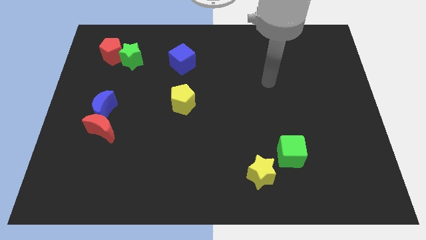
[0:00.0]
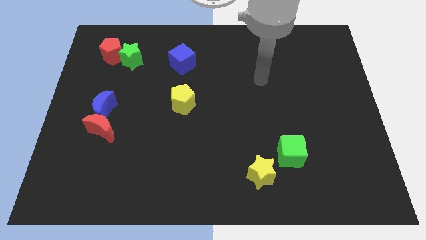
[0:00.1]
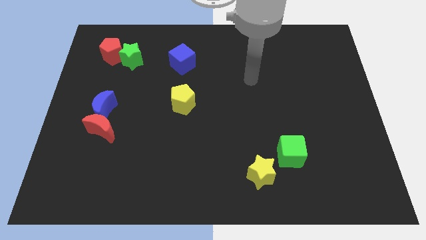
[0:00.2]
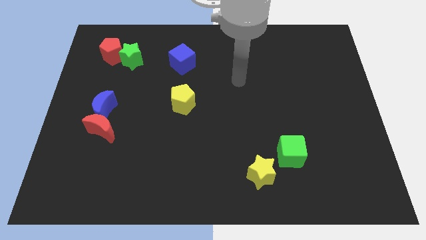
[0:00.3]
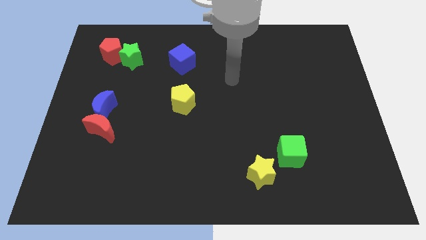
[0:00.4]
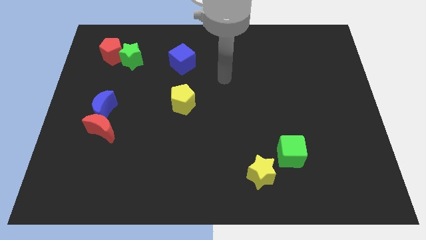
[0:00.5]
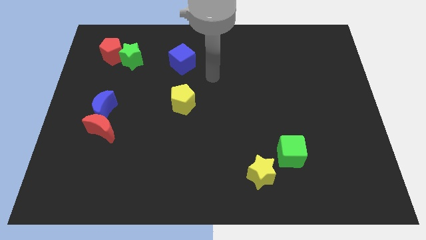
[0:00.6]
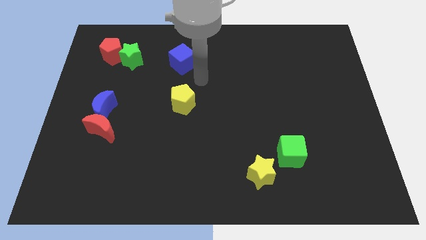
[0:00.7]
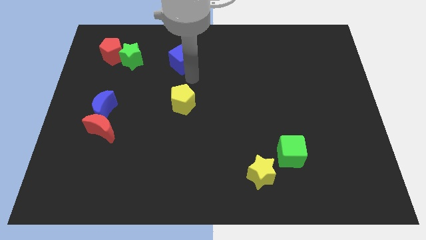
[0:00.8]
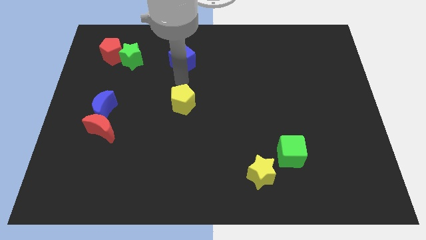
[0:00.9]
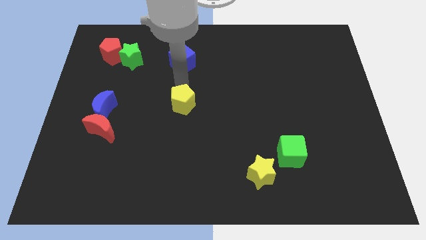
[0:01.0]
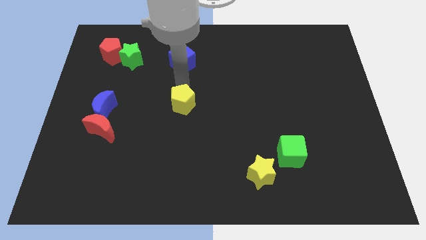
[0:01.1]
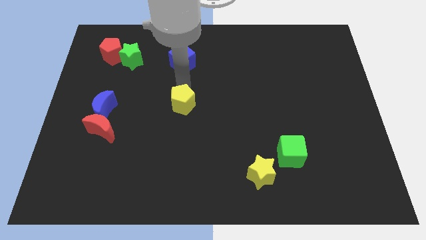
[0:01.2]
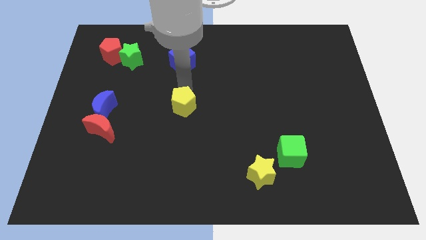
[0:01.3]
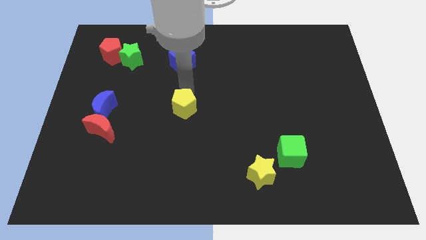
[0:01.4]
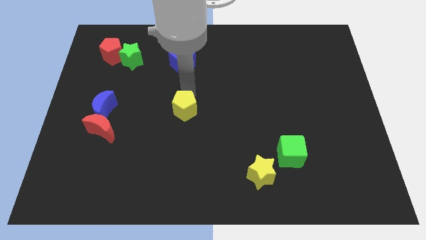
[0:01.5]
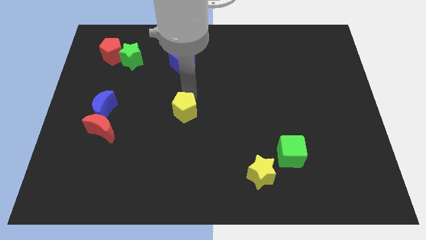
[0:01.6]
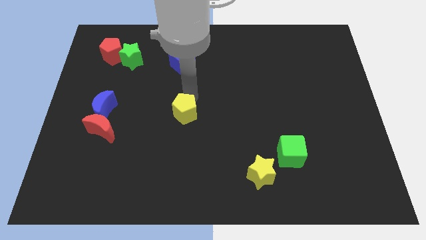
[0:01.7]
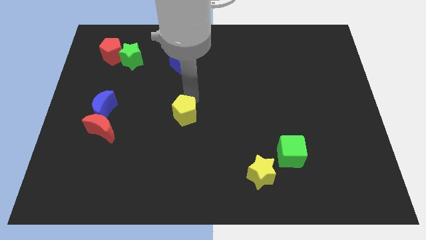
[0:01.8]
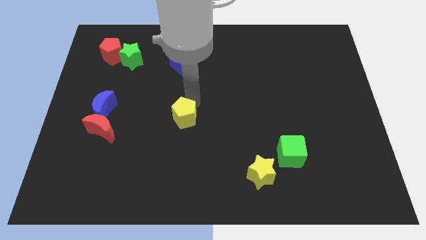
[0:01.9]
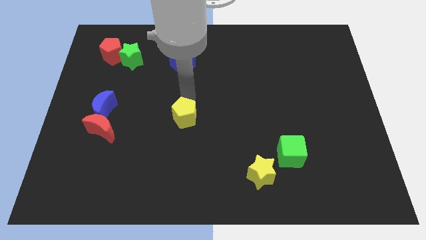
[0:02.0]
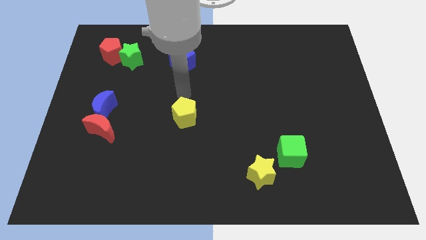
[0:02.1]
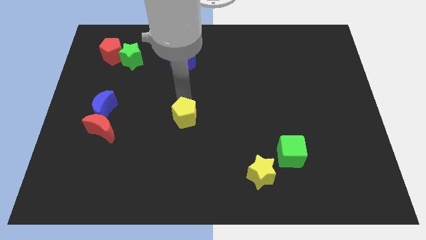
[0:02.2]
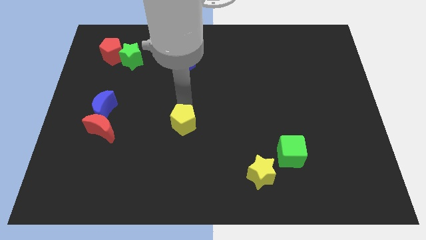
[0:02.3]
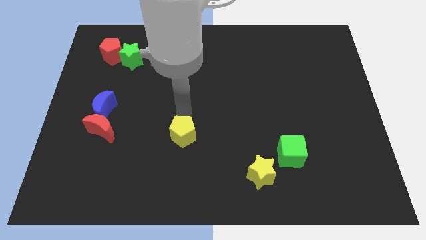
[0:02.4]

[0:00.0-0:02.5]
slightly push the yellow pentagon down

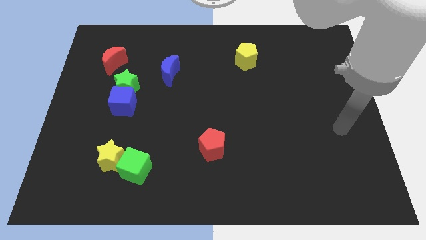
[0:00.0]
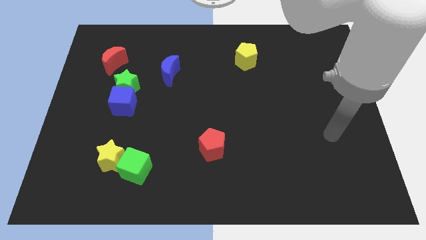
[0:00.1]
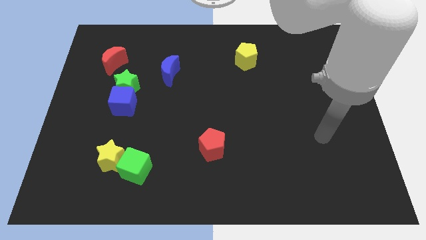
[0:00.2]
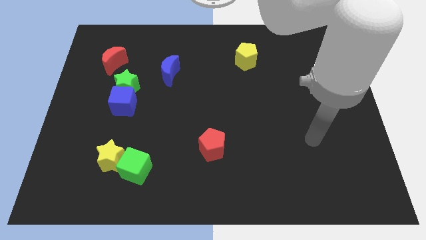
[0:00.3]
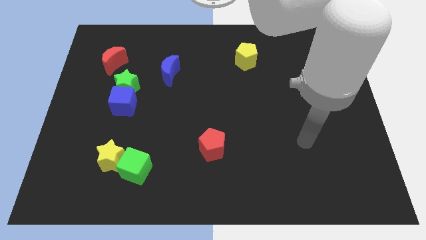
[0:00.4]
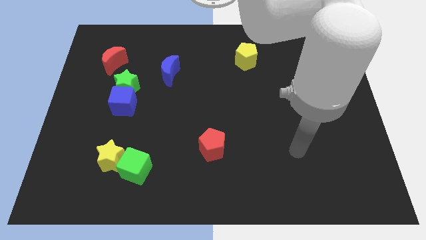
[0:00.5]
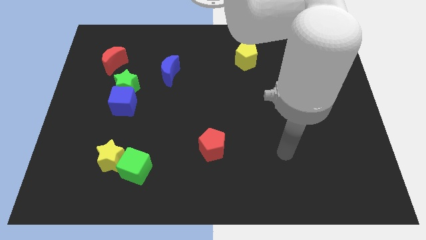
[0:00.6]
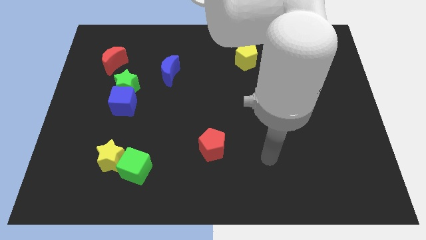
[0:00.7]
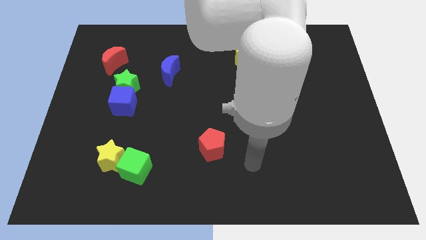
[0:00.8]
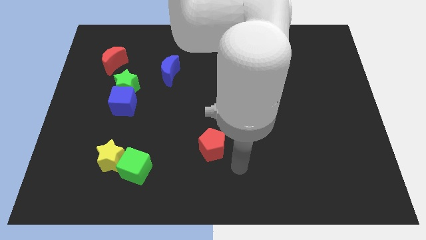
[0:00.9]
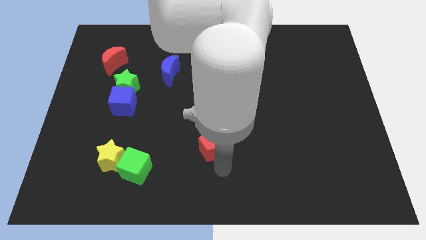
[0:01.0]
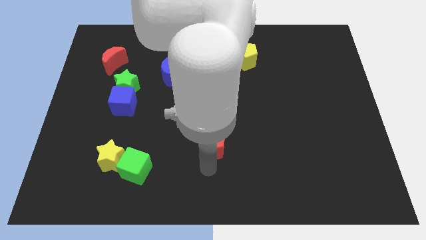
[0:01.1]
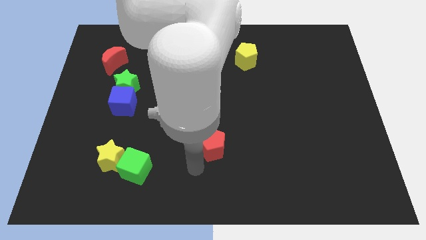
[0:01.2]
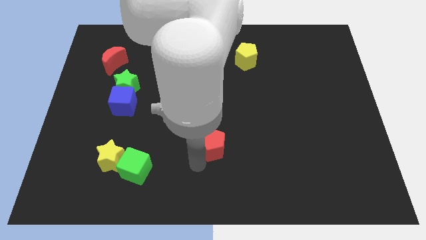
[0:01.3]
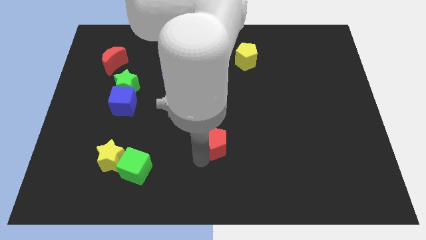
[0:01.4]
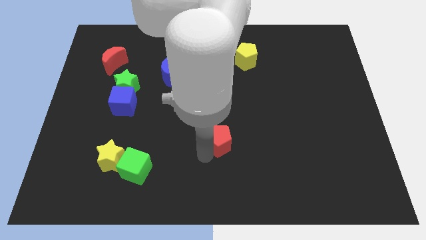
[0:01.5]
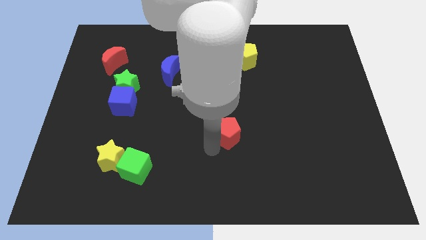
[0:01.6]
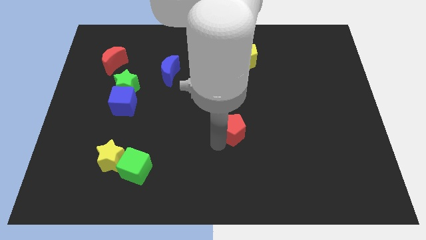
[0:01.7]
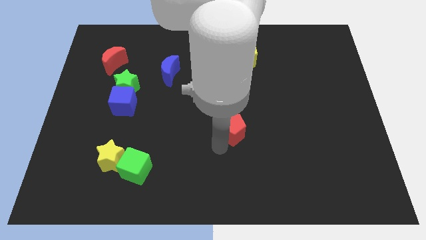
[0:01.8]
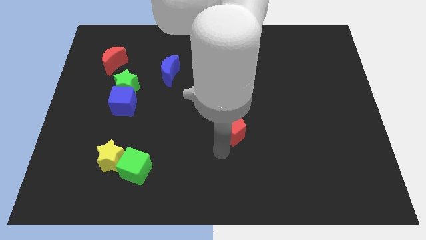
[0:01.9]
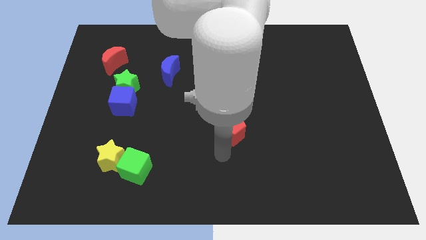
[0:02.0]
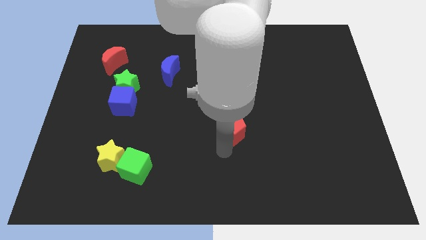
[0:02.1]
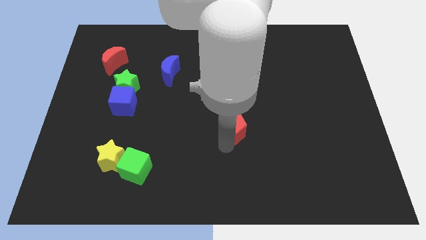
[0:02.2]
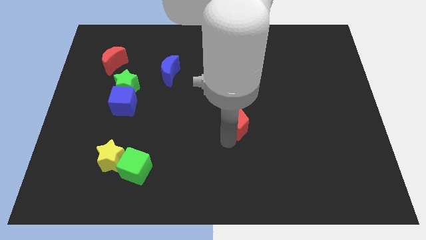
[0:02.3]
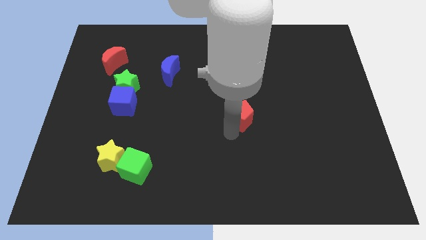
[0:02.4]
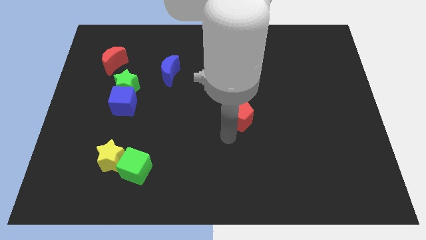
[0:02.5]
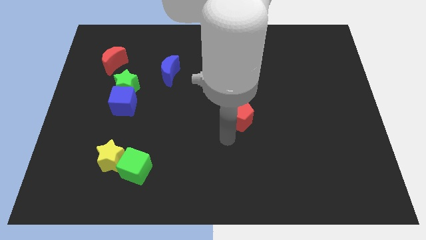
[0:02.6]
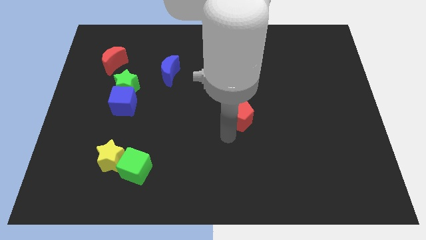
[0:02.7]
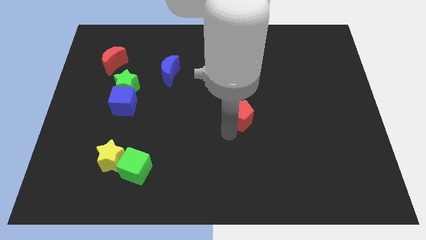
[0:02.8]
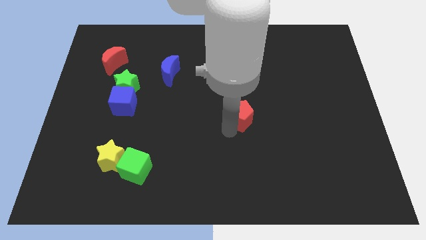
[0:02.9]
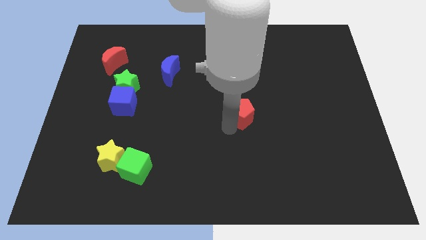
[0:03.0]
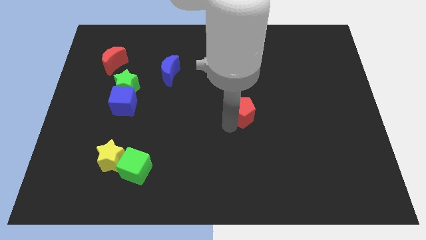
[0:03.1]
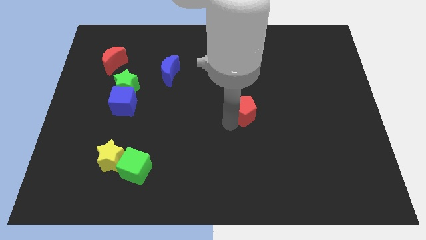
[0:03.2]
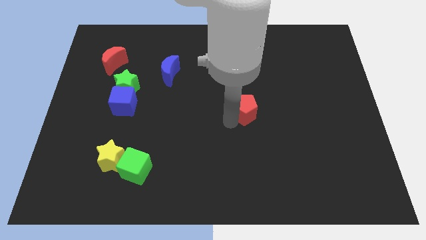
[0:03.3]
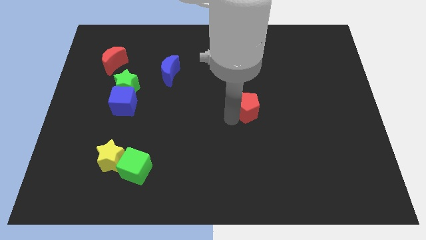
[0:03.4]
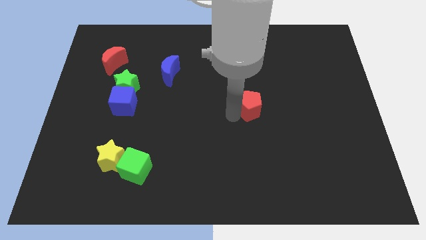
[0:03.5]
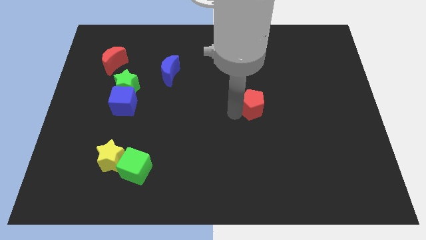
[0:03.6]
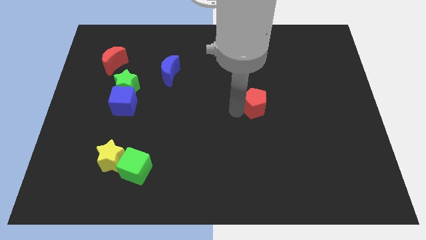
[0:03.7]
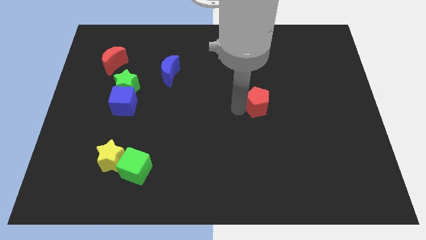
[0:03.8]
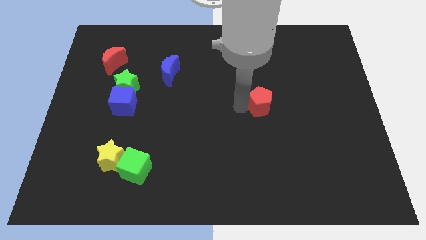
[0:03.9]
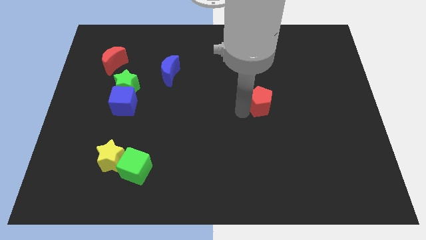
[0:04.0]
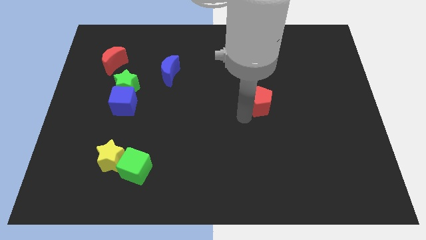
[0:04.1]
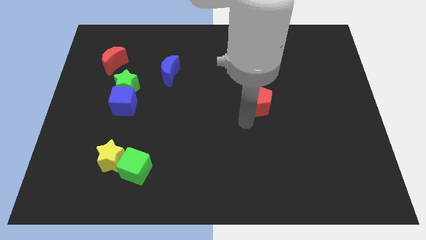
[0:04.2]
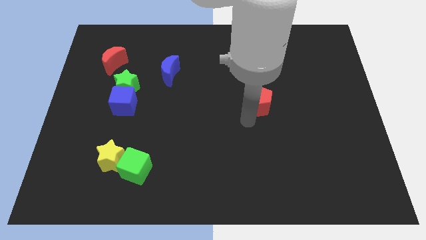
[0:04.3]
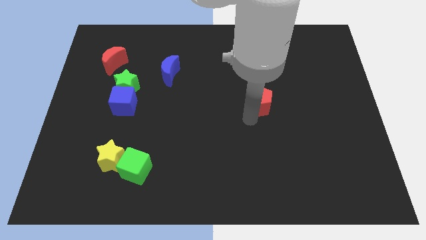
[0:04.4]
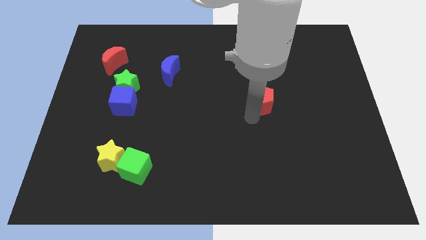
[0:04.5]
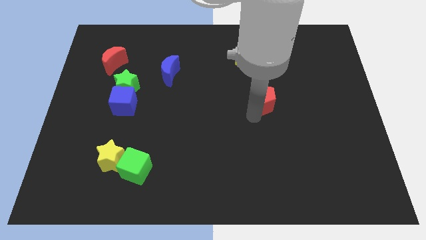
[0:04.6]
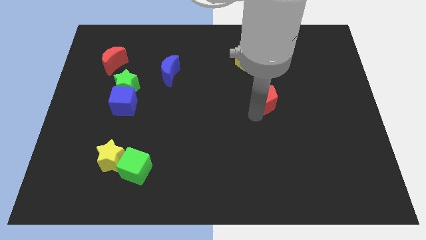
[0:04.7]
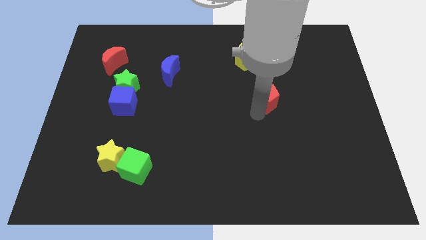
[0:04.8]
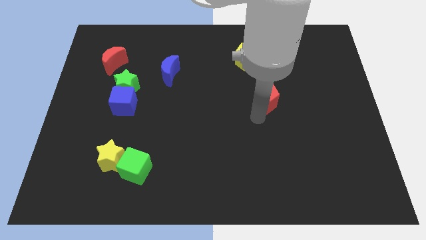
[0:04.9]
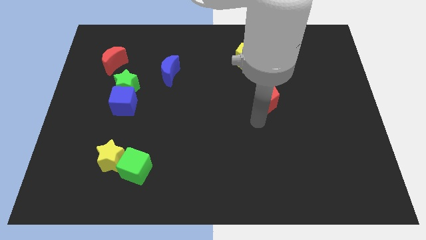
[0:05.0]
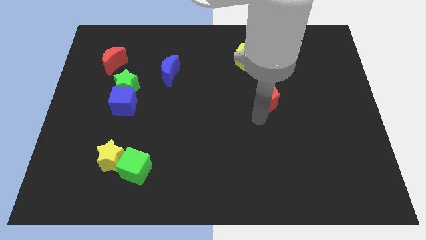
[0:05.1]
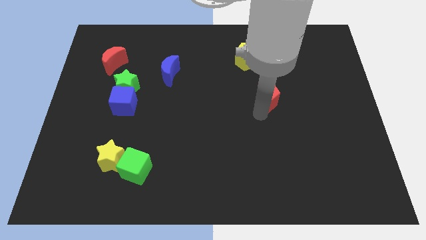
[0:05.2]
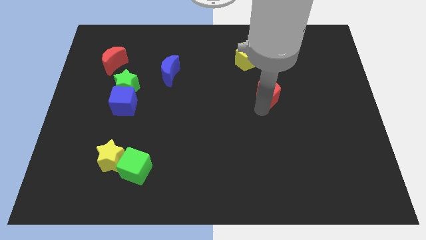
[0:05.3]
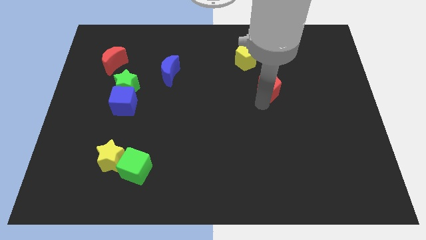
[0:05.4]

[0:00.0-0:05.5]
push the red pentagon upwards and right

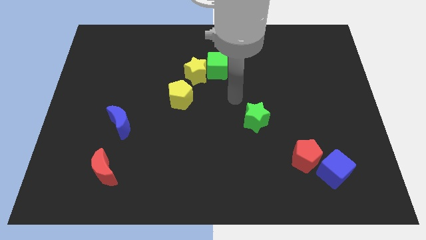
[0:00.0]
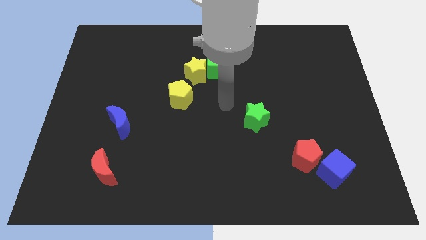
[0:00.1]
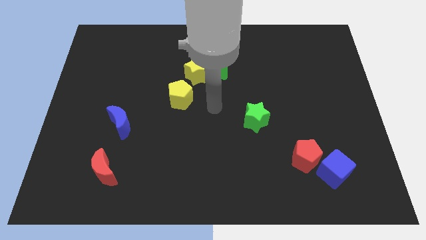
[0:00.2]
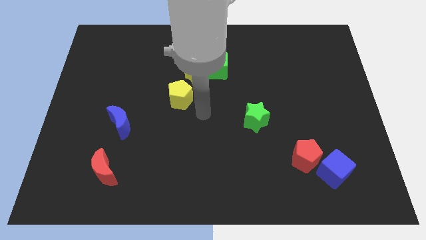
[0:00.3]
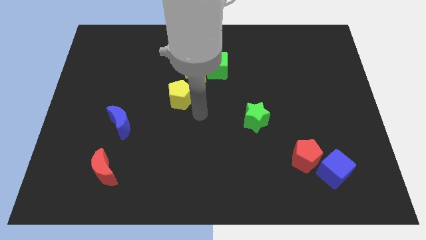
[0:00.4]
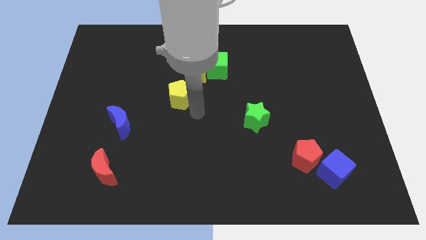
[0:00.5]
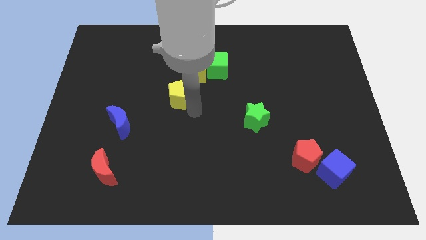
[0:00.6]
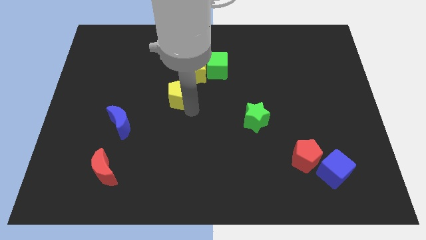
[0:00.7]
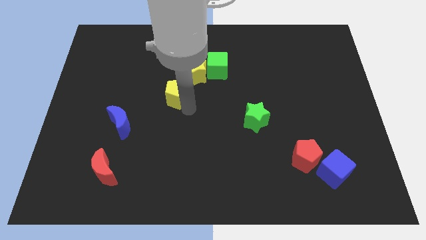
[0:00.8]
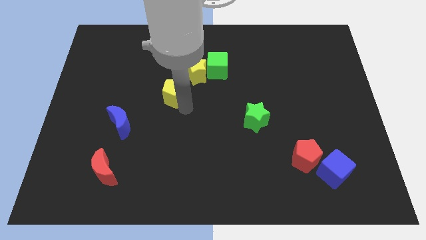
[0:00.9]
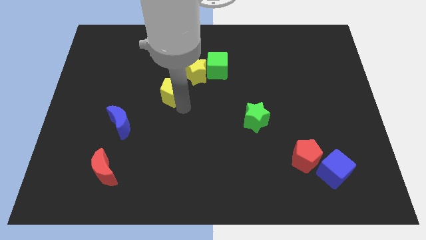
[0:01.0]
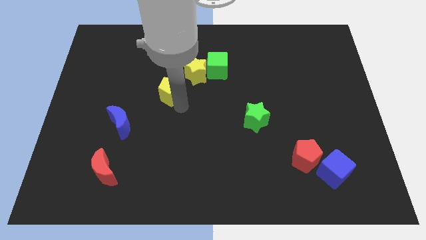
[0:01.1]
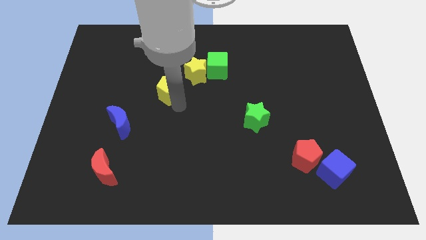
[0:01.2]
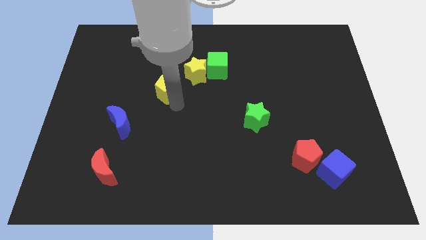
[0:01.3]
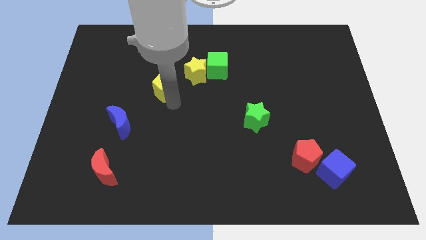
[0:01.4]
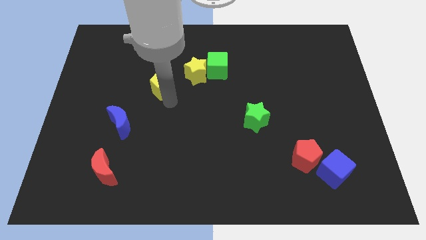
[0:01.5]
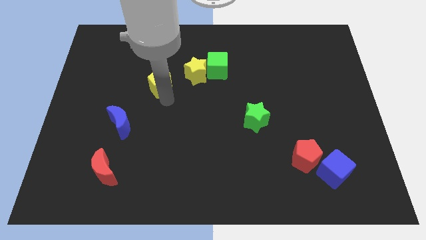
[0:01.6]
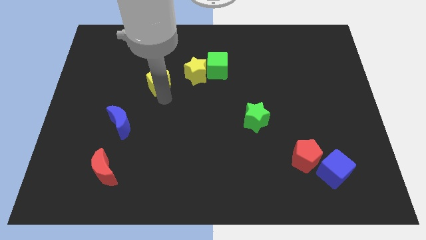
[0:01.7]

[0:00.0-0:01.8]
slightly slide the yellow pentagon up and to the left
